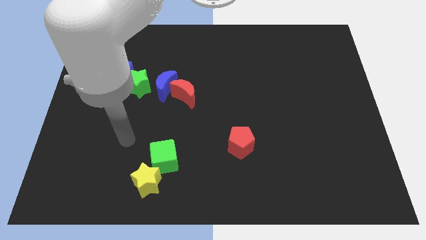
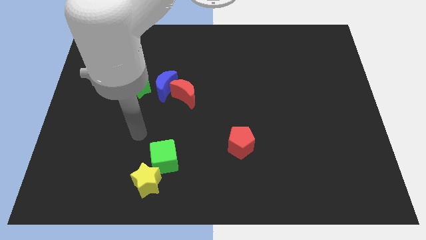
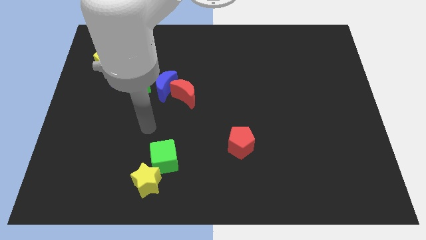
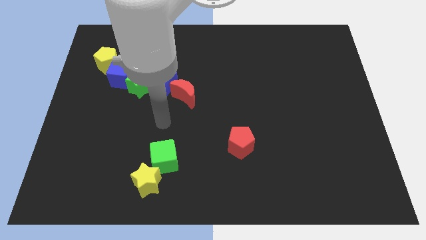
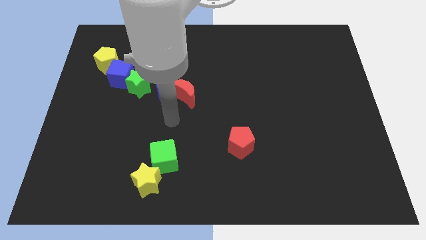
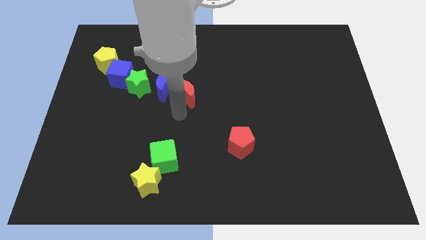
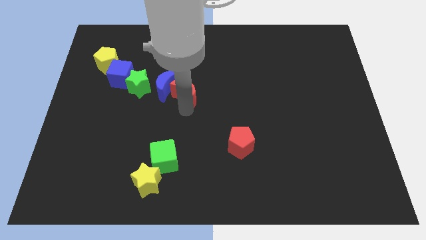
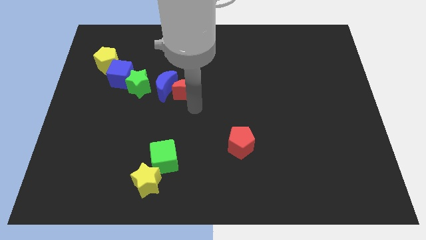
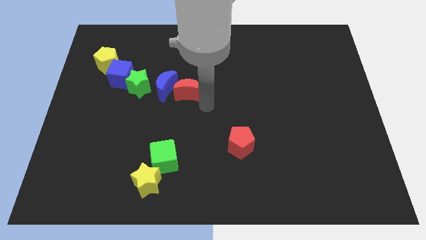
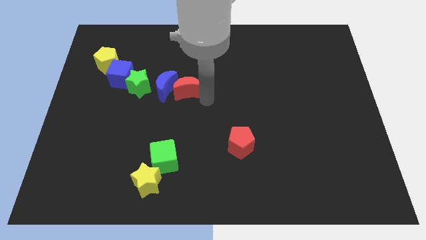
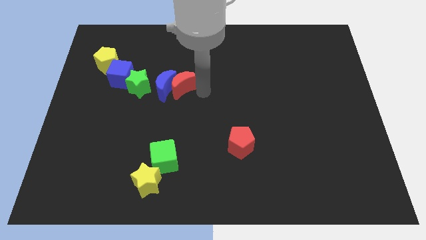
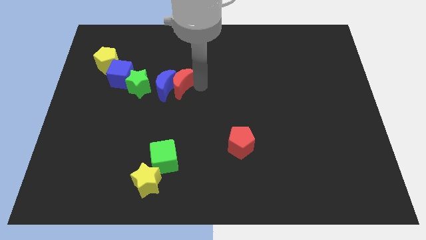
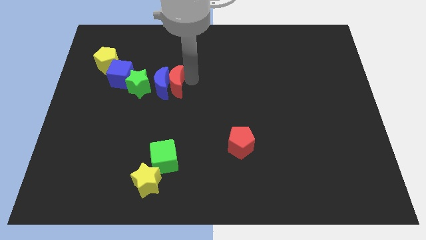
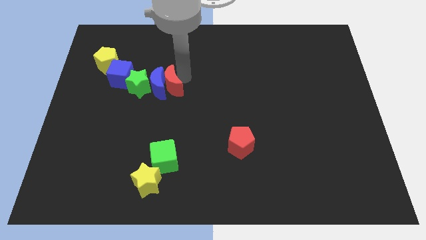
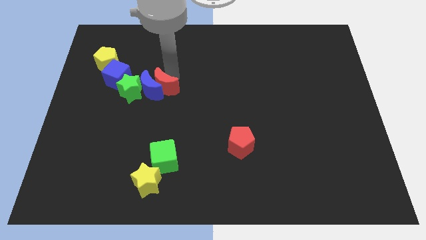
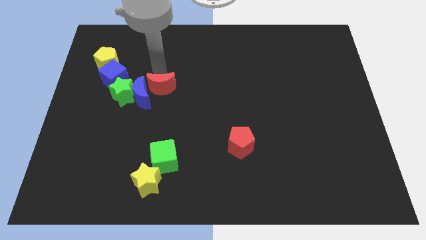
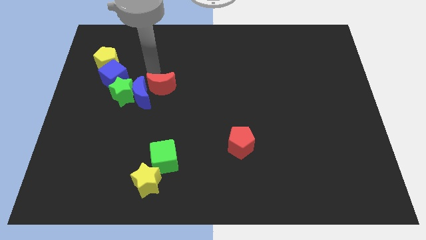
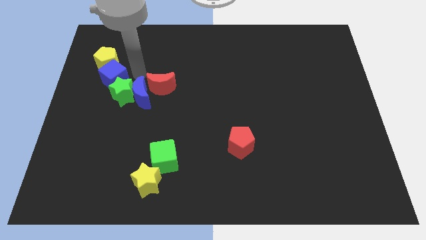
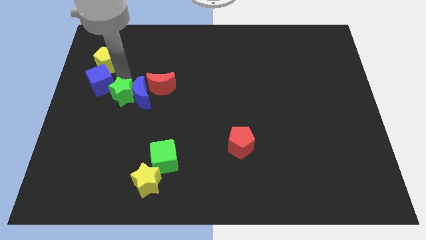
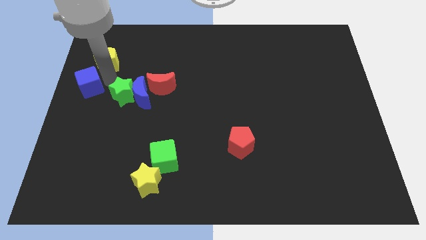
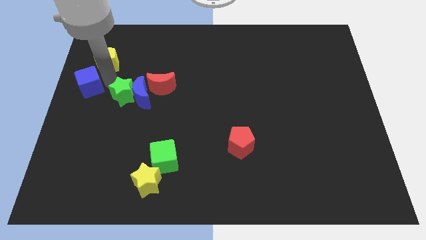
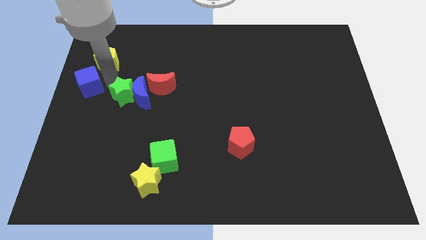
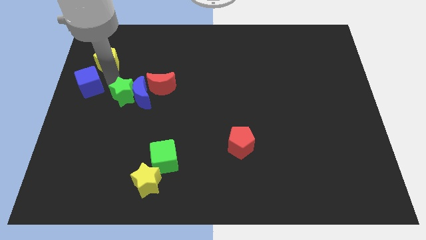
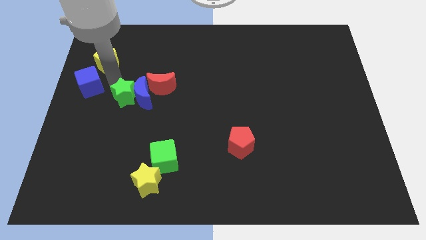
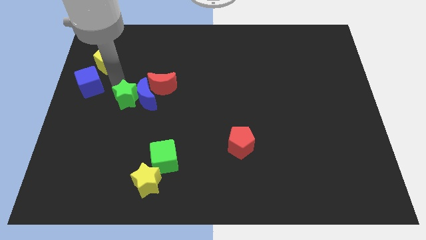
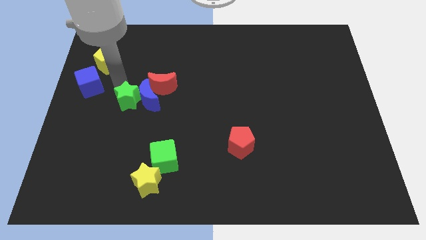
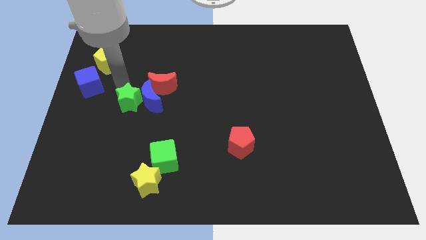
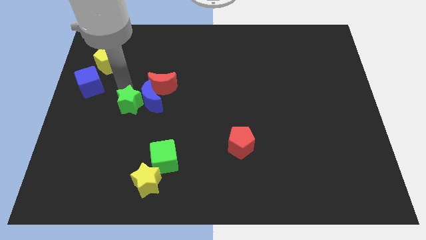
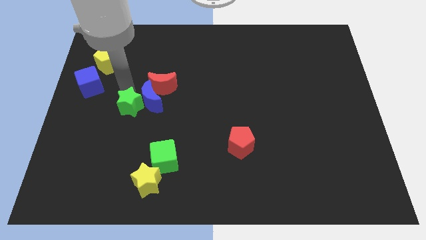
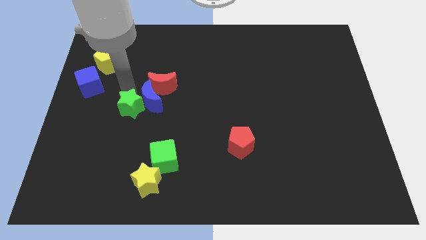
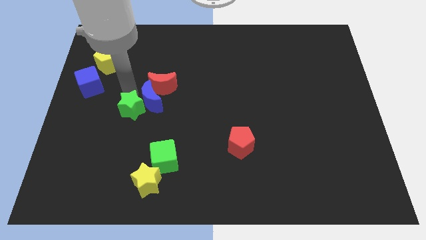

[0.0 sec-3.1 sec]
slide the green star slightly down

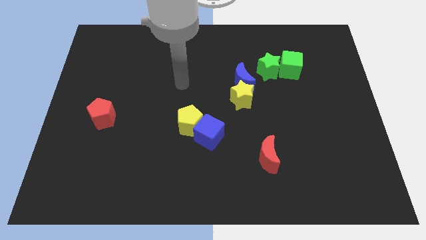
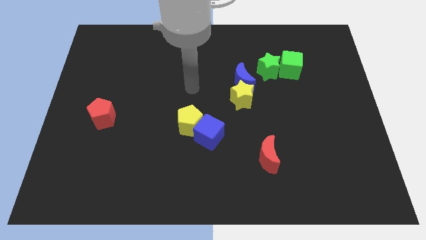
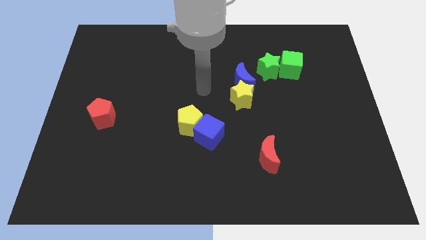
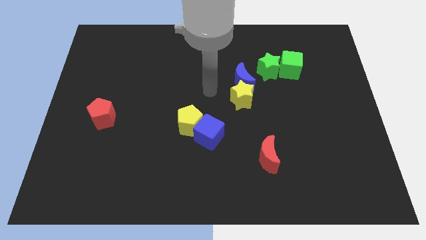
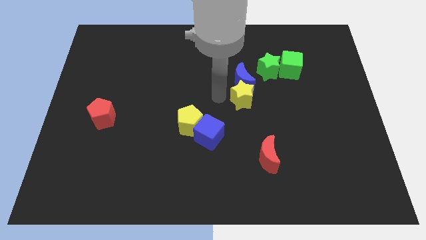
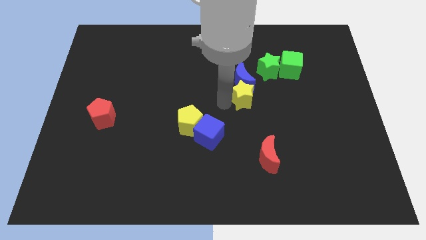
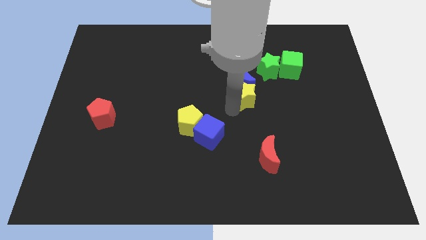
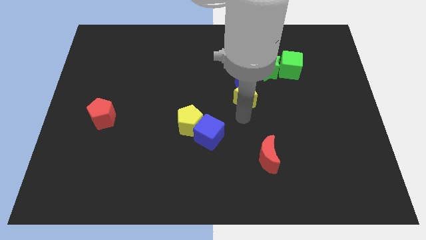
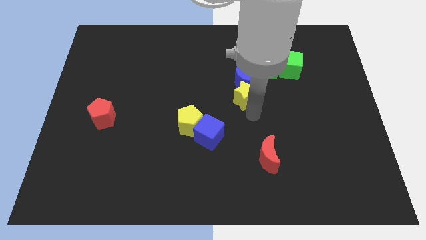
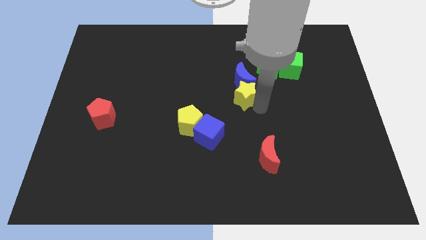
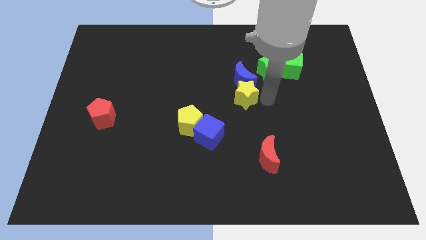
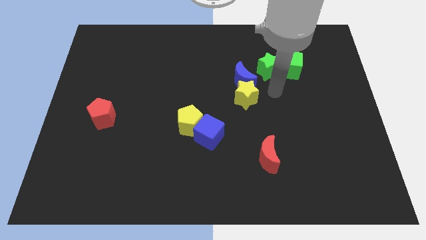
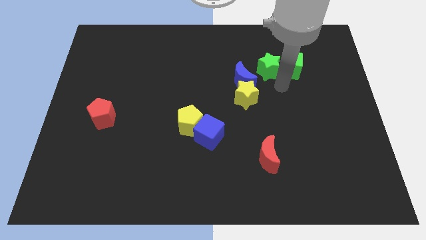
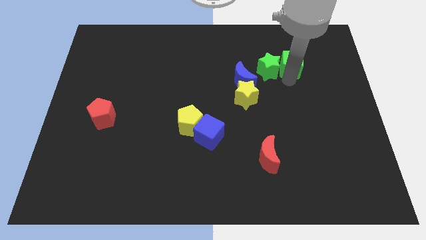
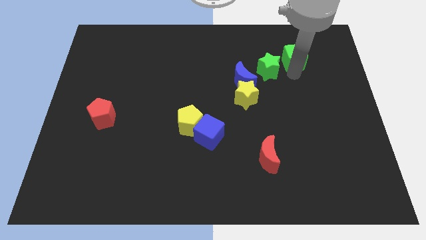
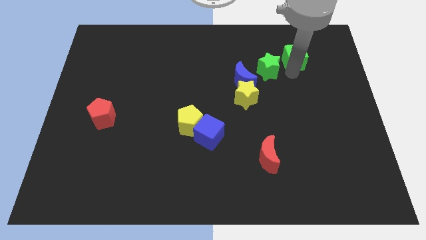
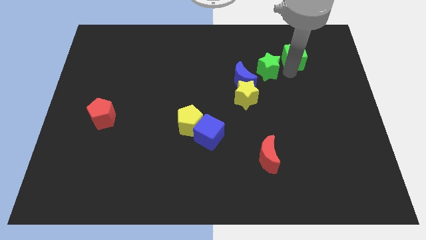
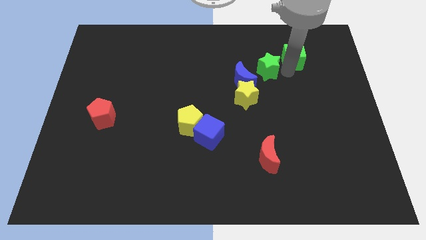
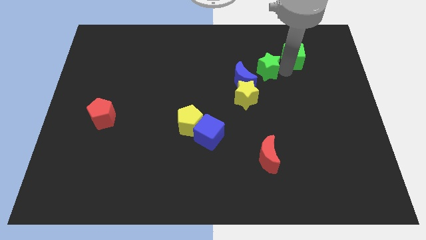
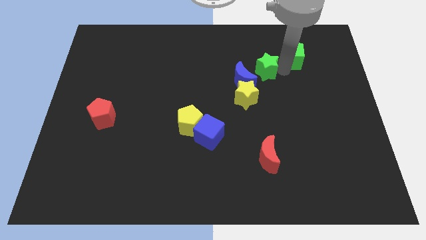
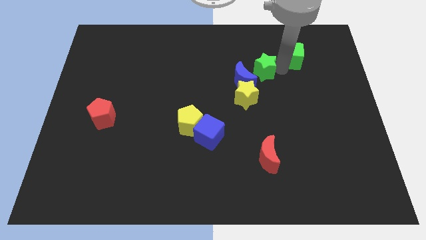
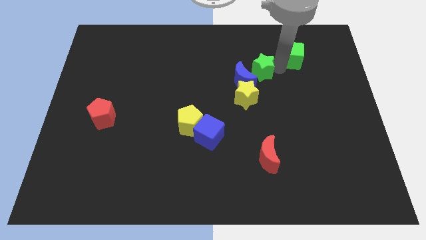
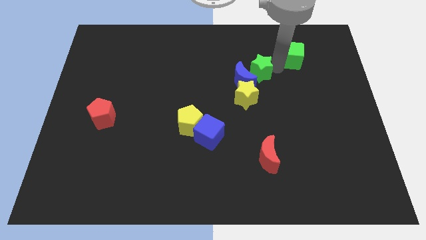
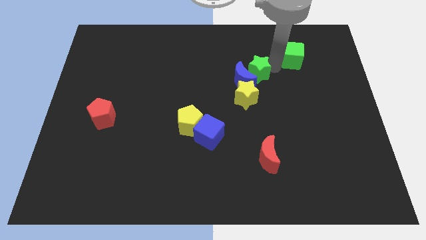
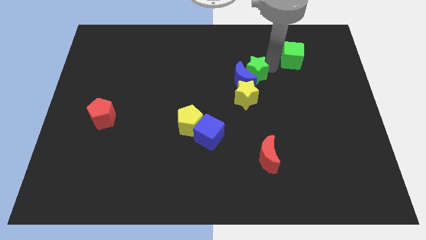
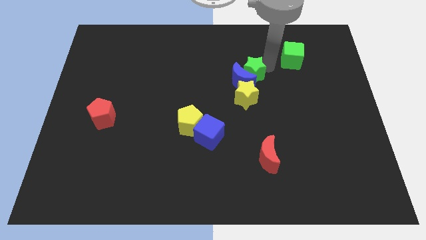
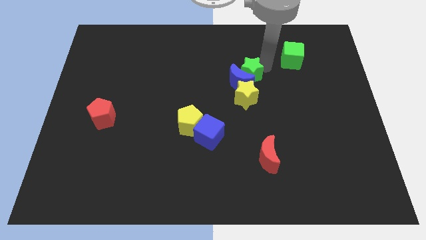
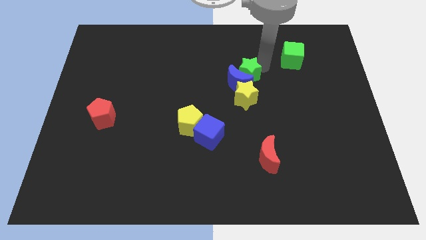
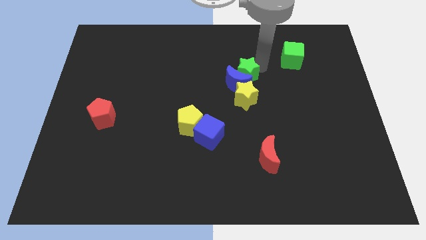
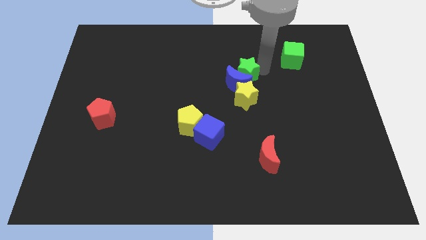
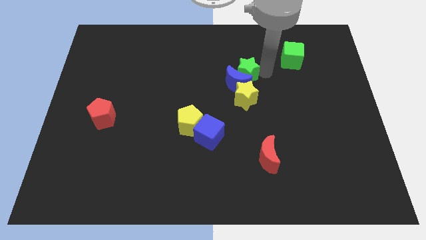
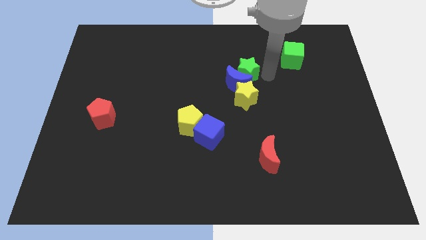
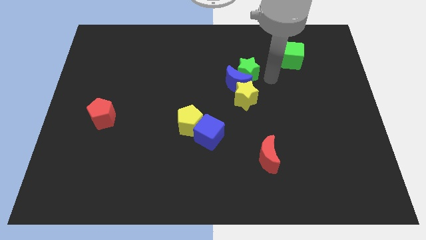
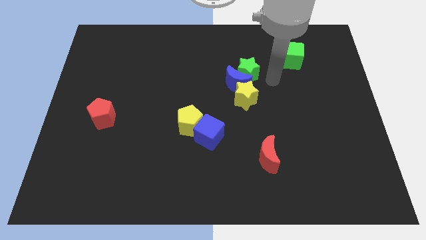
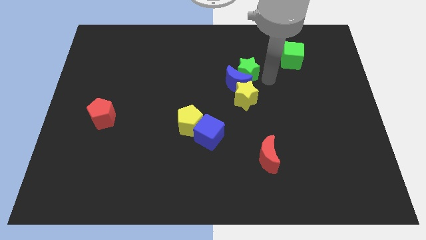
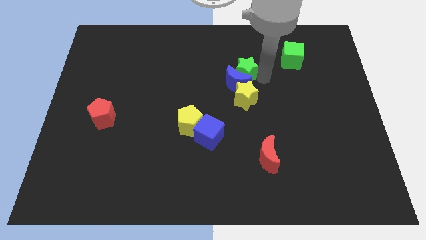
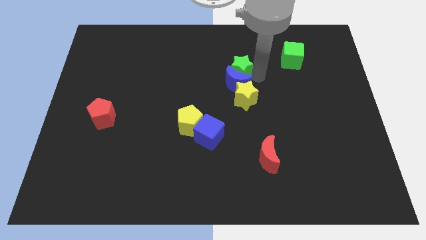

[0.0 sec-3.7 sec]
push the green star to the left a bit

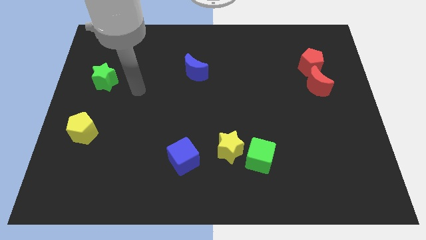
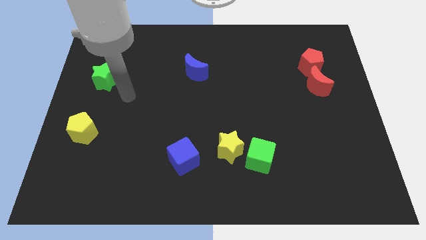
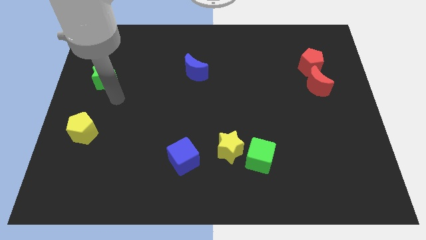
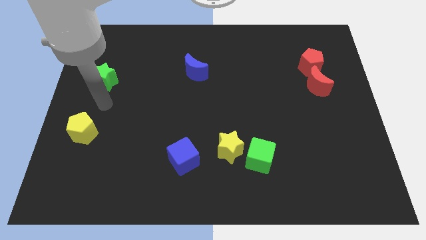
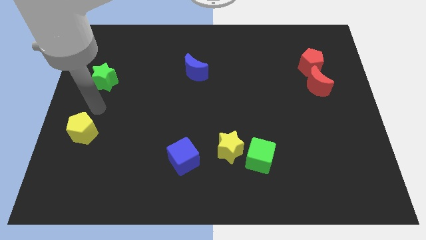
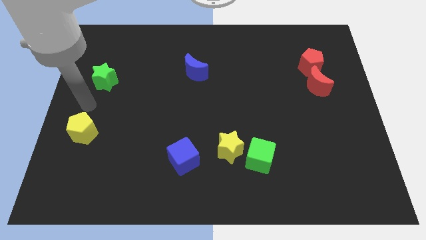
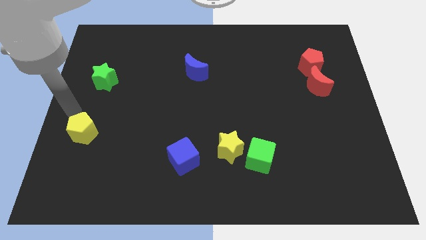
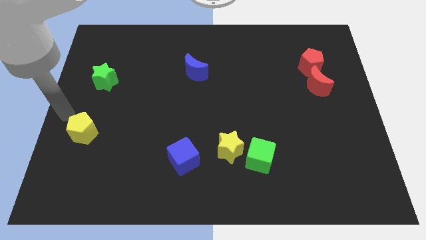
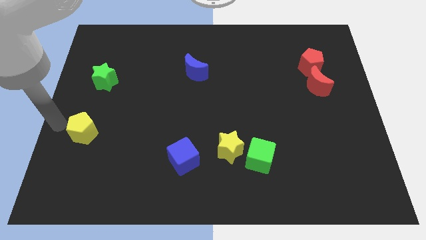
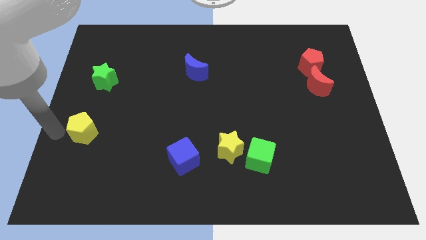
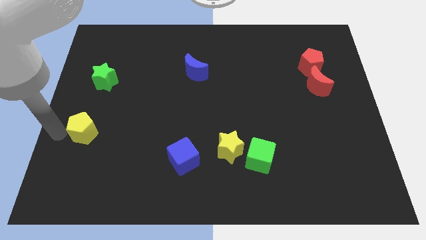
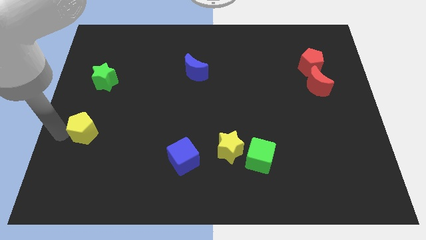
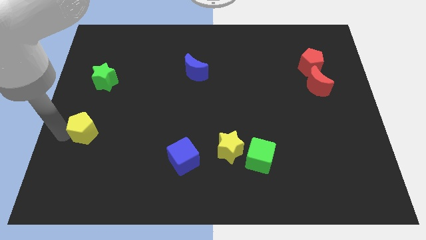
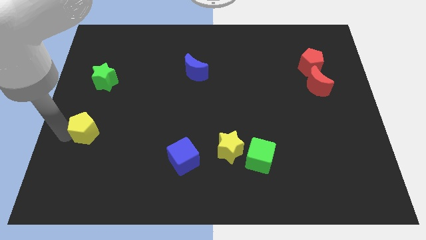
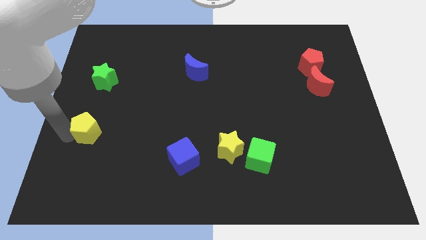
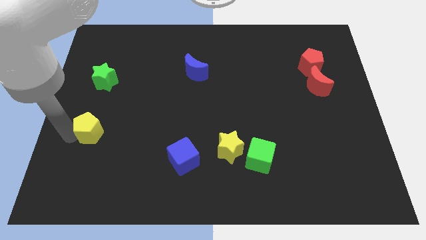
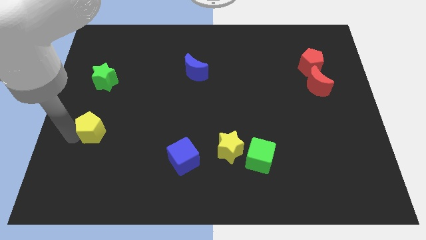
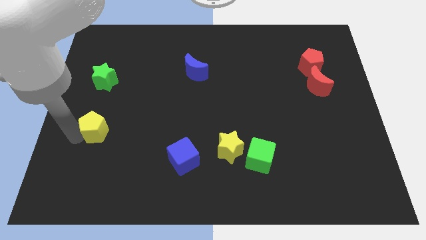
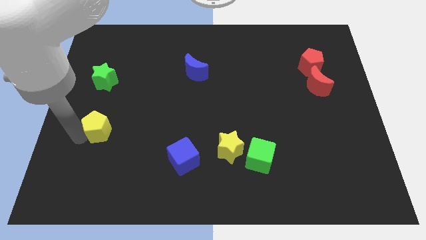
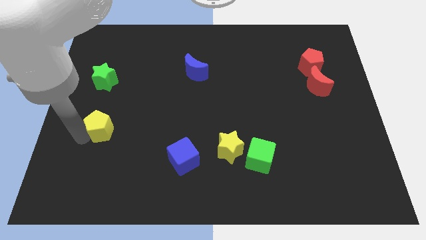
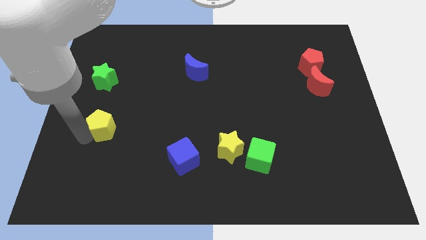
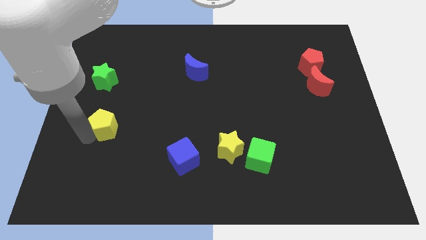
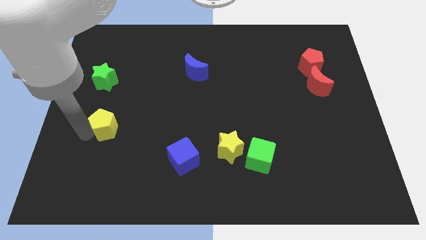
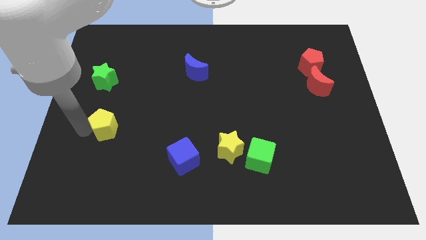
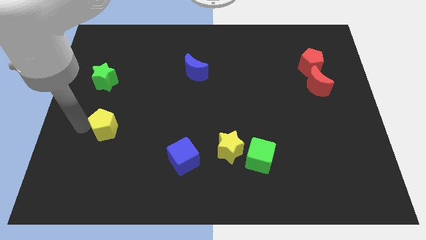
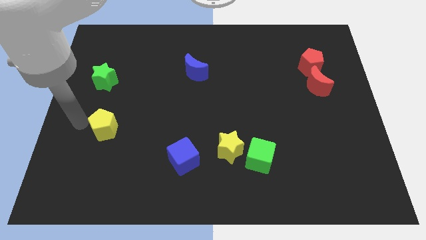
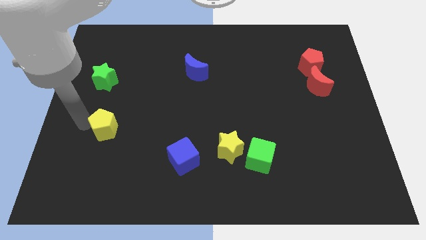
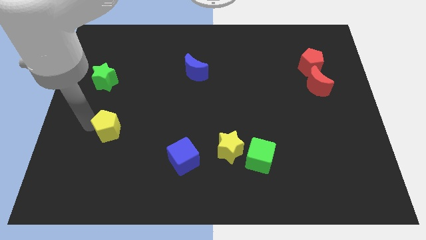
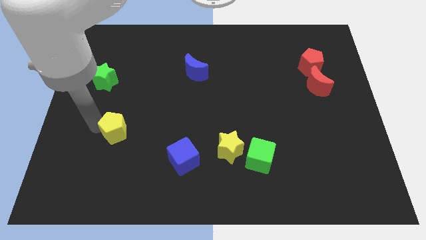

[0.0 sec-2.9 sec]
move the yellow pentagon a bit to the right
